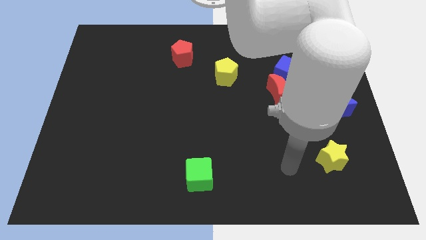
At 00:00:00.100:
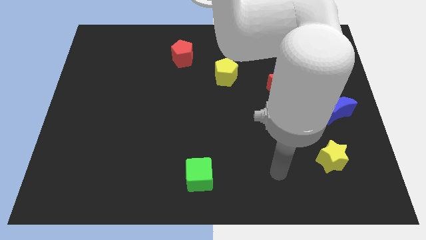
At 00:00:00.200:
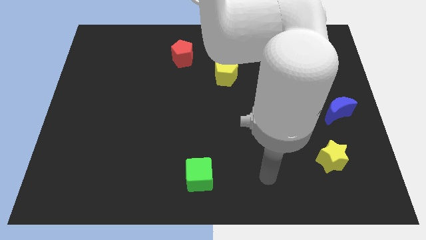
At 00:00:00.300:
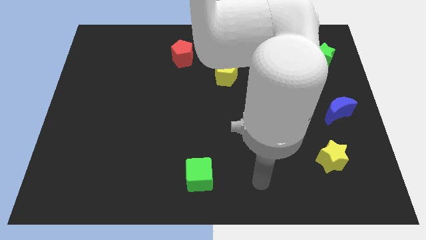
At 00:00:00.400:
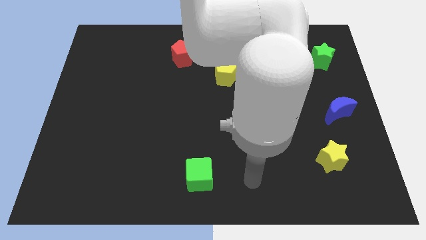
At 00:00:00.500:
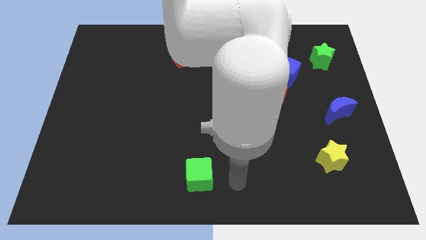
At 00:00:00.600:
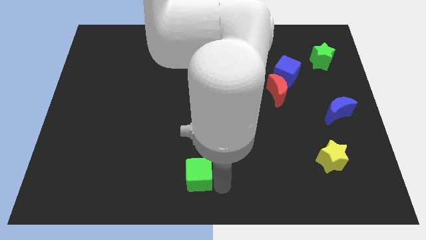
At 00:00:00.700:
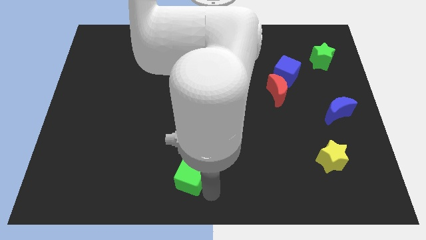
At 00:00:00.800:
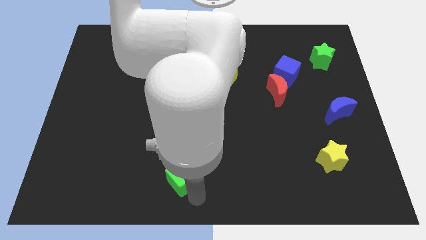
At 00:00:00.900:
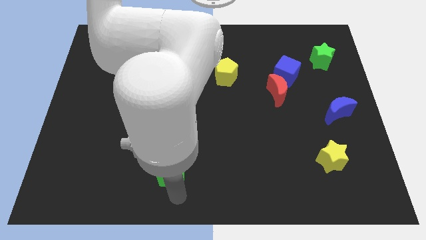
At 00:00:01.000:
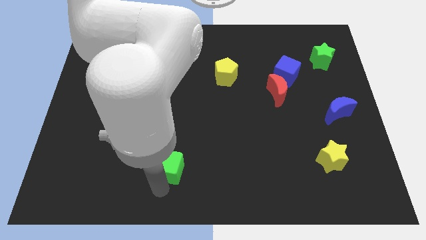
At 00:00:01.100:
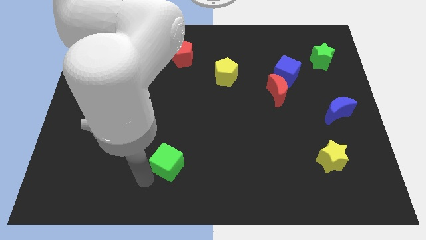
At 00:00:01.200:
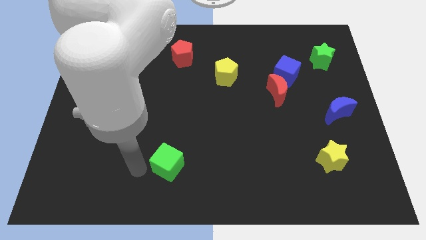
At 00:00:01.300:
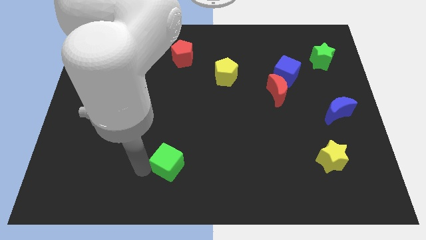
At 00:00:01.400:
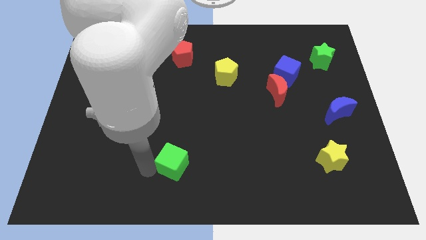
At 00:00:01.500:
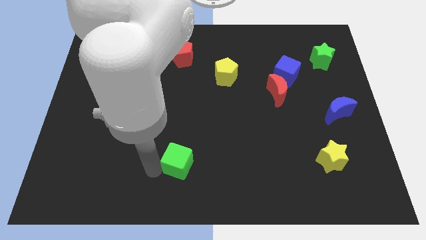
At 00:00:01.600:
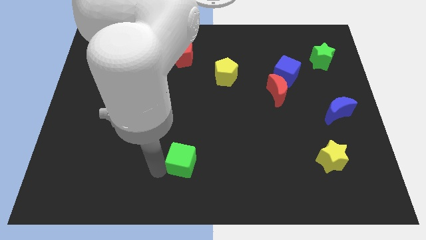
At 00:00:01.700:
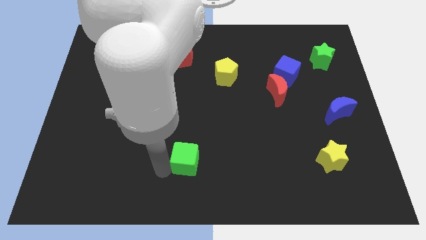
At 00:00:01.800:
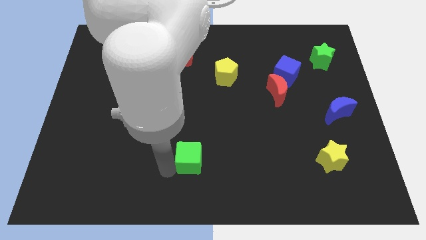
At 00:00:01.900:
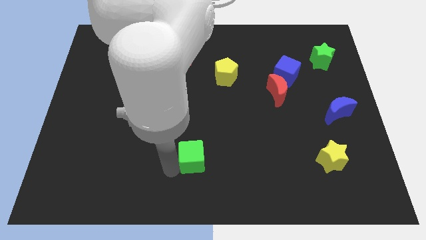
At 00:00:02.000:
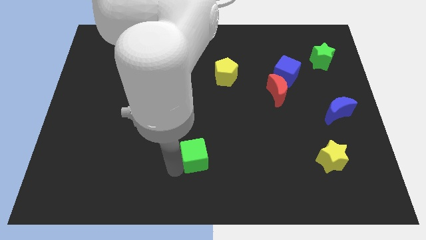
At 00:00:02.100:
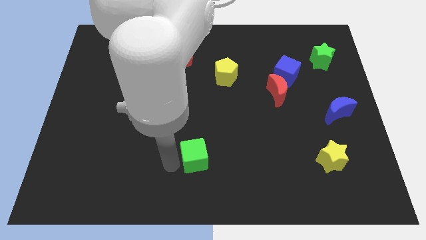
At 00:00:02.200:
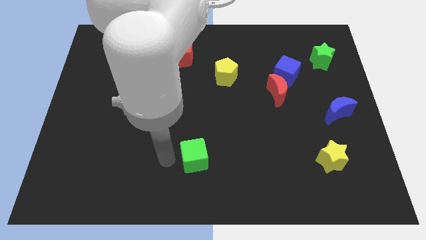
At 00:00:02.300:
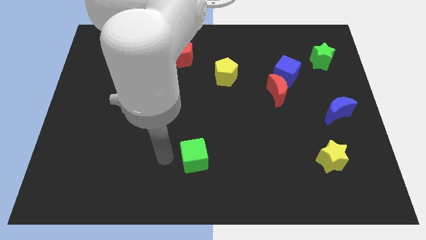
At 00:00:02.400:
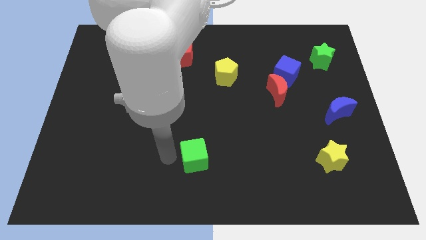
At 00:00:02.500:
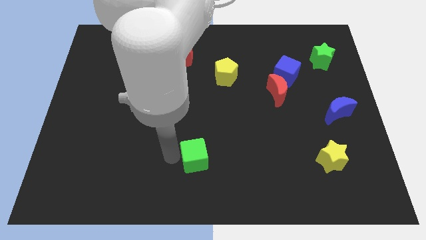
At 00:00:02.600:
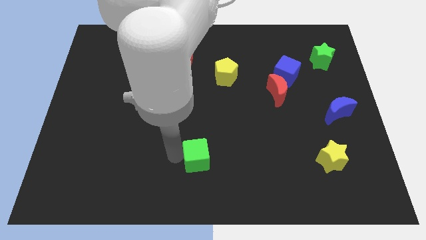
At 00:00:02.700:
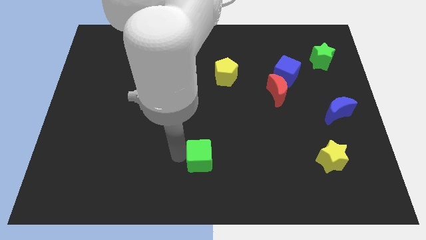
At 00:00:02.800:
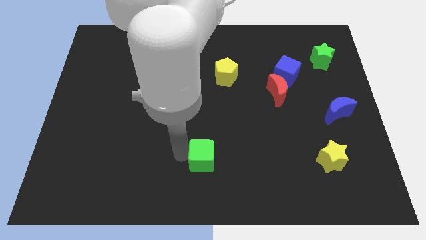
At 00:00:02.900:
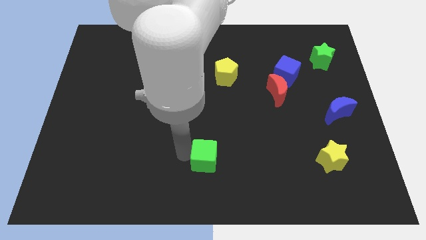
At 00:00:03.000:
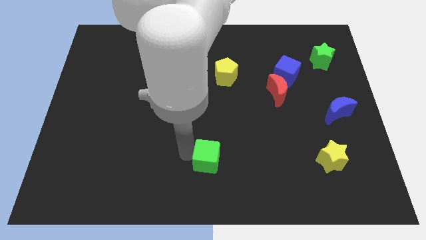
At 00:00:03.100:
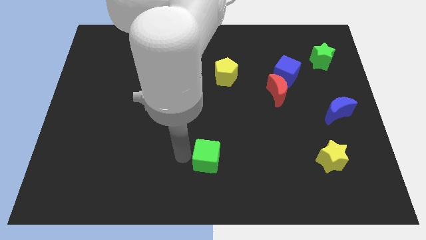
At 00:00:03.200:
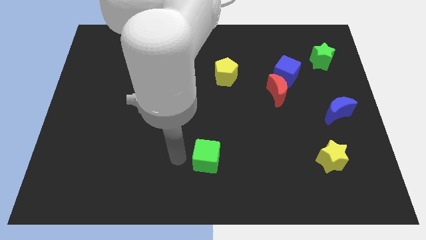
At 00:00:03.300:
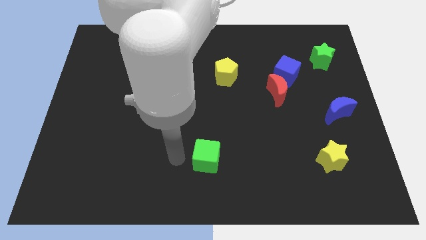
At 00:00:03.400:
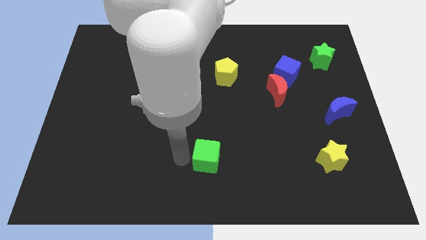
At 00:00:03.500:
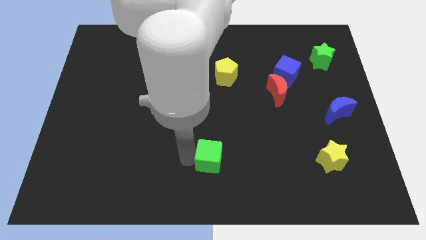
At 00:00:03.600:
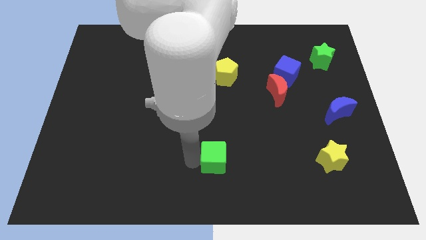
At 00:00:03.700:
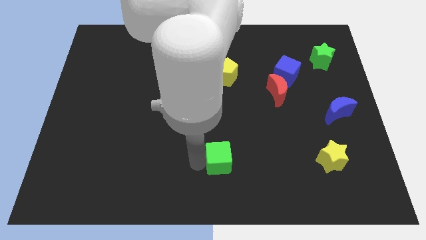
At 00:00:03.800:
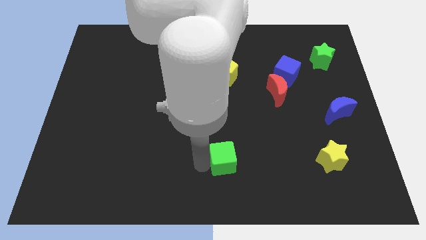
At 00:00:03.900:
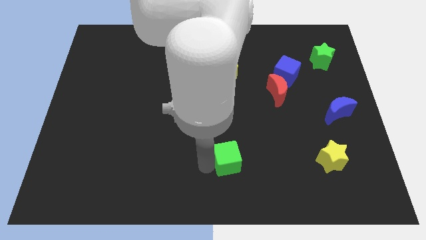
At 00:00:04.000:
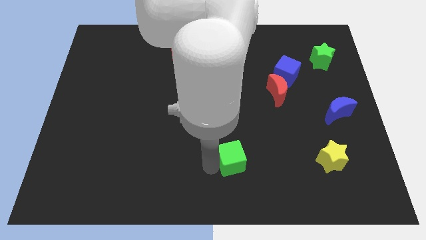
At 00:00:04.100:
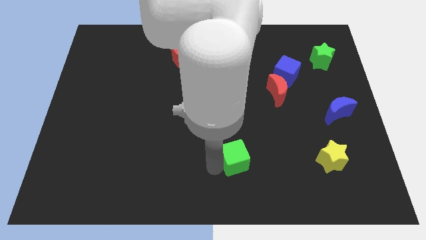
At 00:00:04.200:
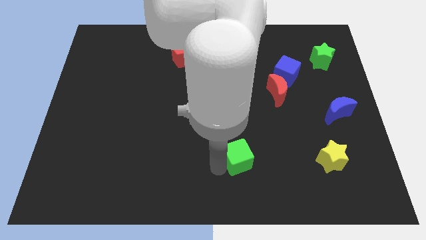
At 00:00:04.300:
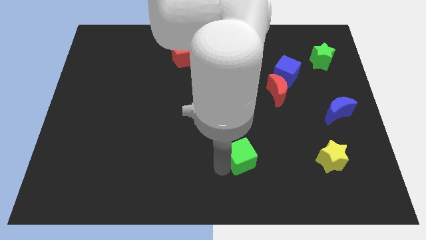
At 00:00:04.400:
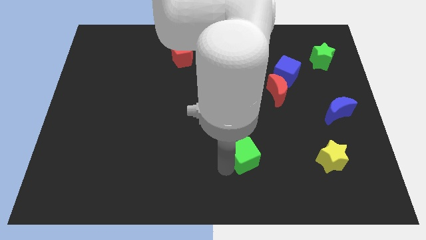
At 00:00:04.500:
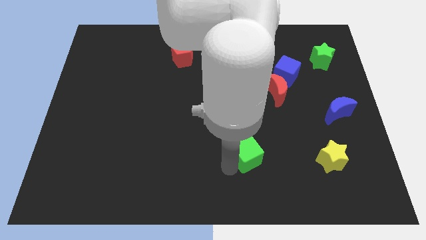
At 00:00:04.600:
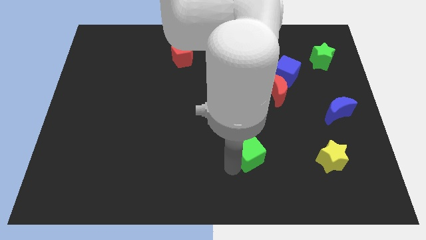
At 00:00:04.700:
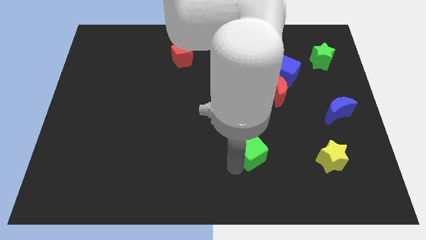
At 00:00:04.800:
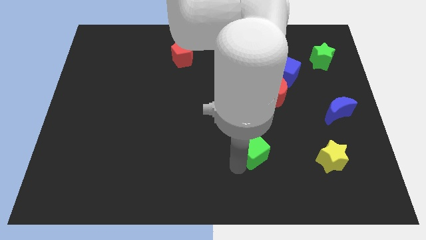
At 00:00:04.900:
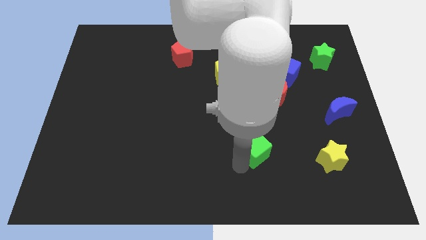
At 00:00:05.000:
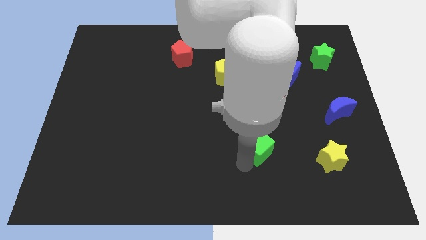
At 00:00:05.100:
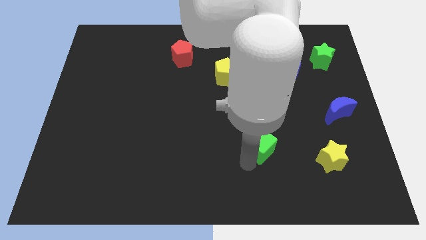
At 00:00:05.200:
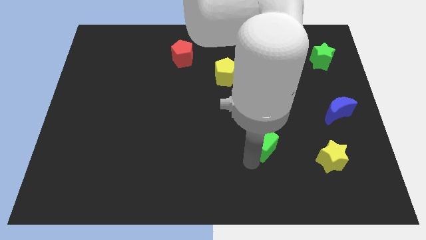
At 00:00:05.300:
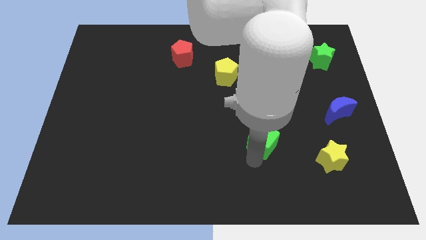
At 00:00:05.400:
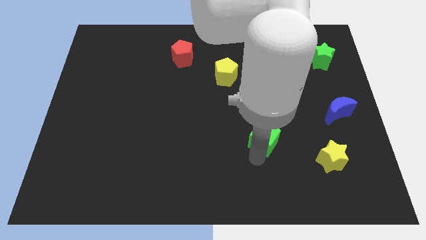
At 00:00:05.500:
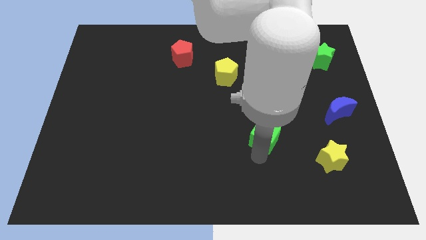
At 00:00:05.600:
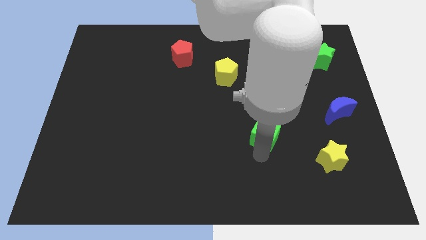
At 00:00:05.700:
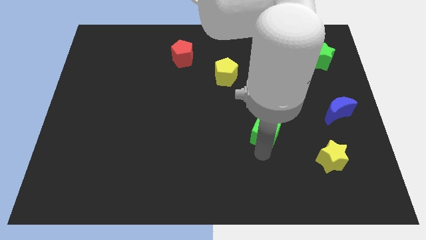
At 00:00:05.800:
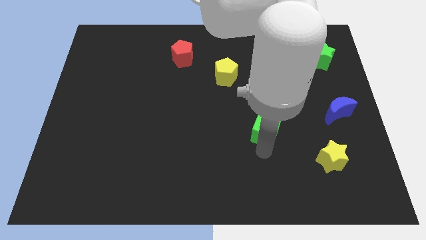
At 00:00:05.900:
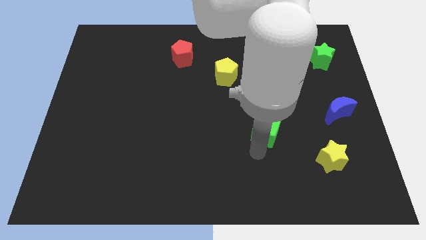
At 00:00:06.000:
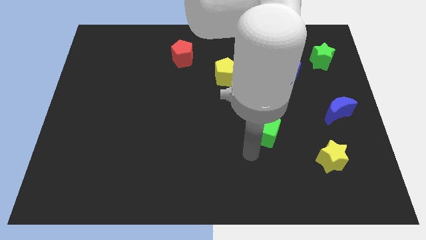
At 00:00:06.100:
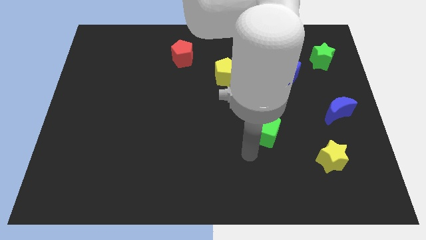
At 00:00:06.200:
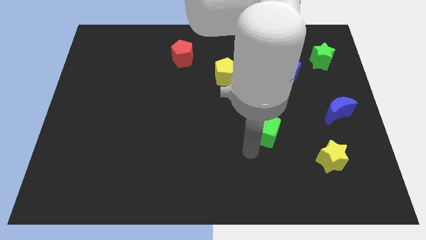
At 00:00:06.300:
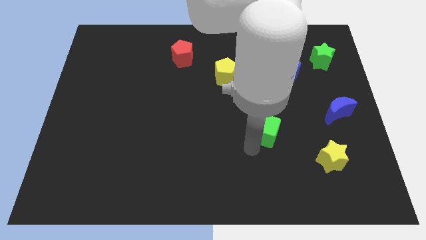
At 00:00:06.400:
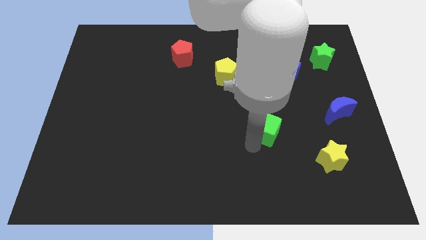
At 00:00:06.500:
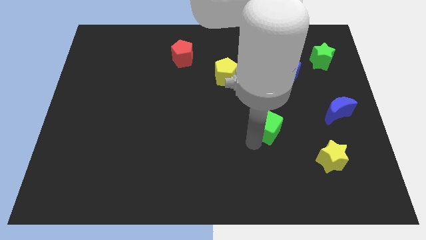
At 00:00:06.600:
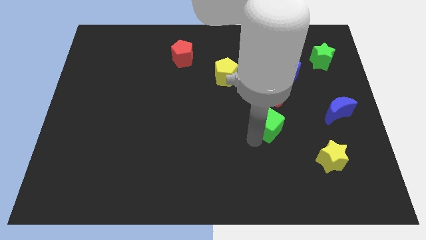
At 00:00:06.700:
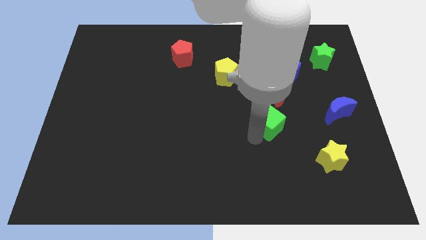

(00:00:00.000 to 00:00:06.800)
push the green cube up and to the right diagonally

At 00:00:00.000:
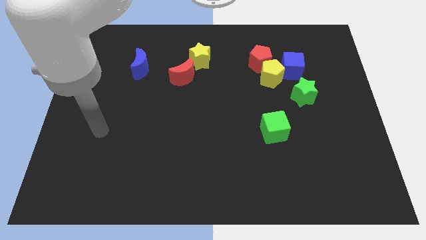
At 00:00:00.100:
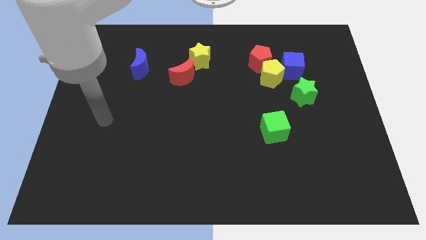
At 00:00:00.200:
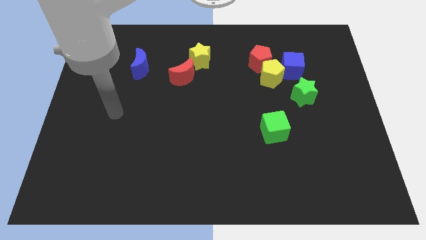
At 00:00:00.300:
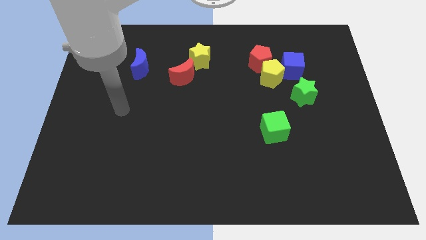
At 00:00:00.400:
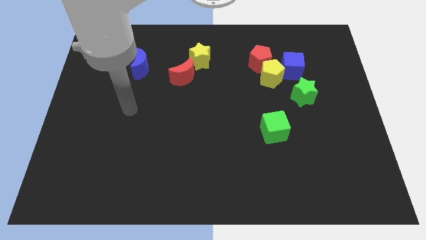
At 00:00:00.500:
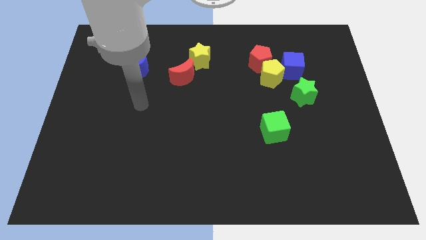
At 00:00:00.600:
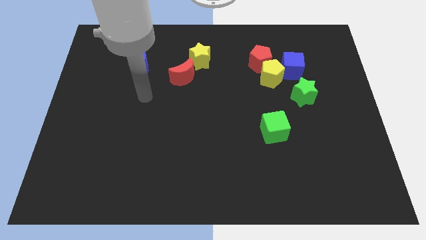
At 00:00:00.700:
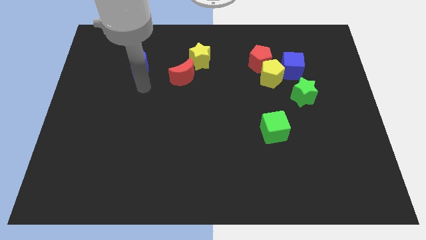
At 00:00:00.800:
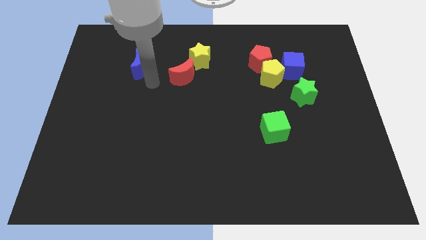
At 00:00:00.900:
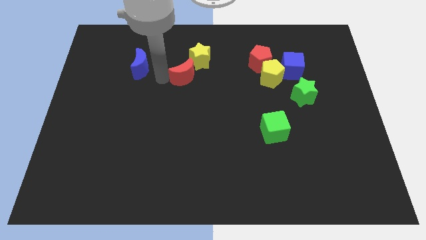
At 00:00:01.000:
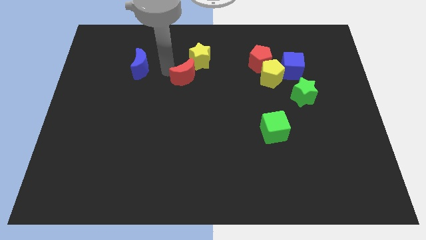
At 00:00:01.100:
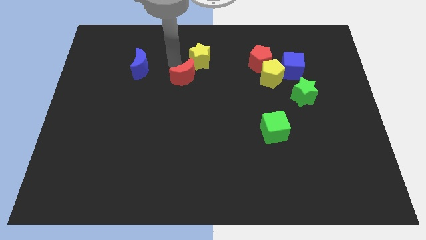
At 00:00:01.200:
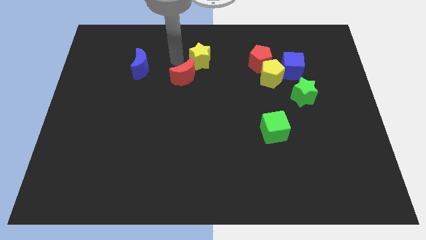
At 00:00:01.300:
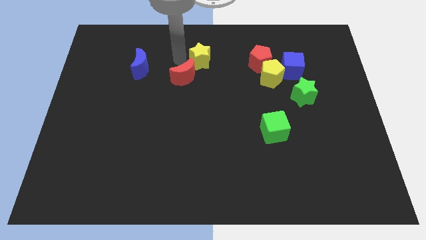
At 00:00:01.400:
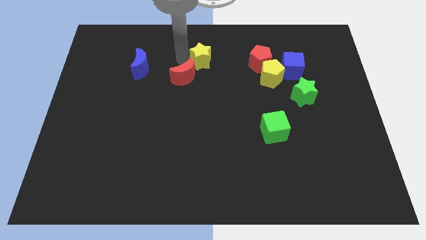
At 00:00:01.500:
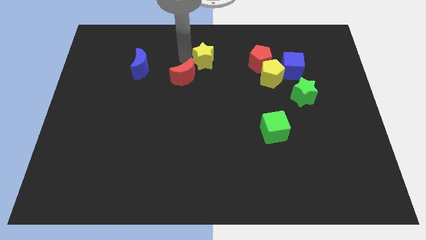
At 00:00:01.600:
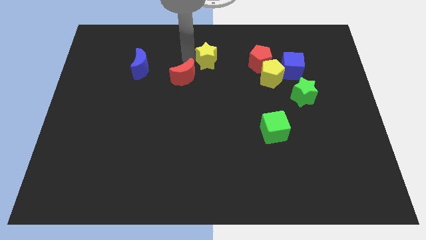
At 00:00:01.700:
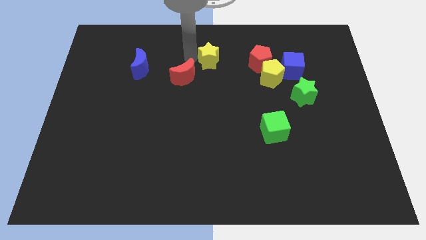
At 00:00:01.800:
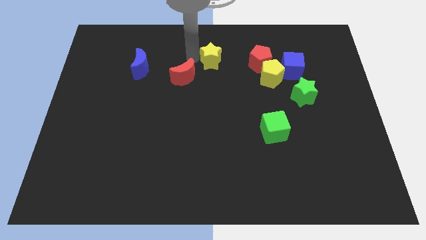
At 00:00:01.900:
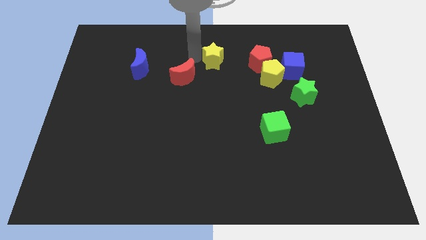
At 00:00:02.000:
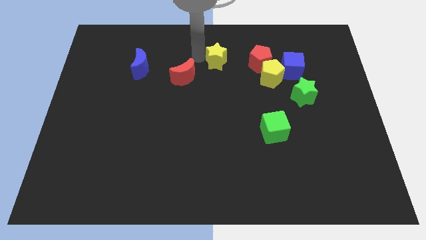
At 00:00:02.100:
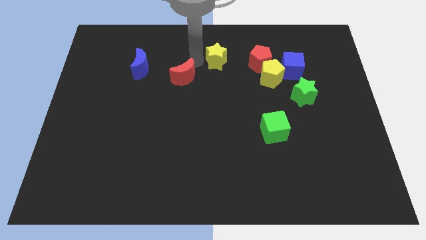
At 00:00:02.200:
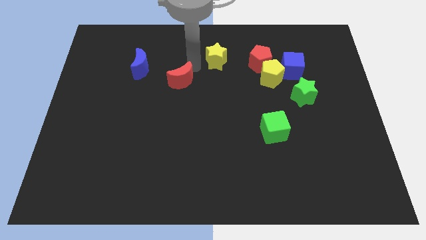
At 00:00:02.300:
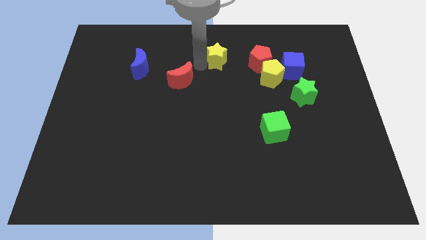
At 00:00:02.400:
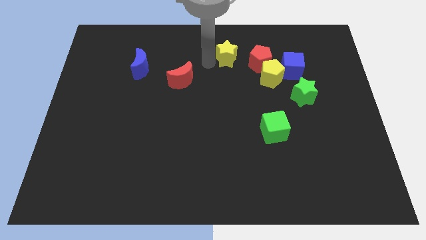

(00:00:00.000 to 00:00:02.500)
slide the yellow star slightly right
